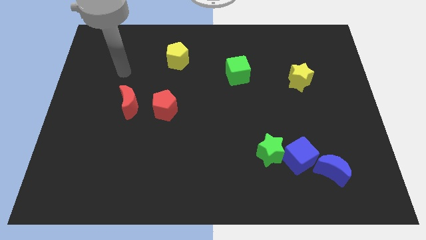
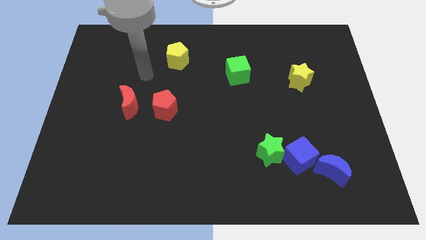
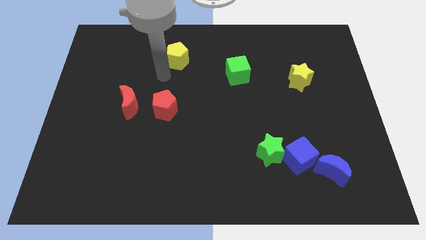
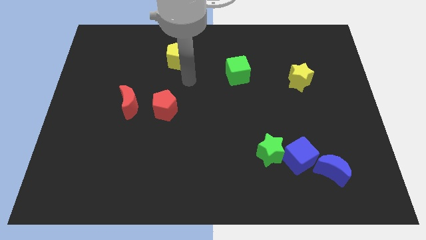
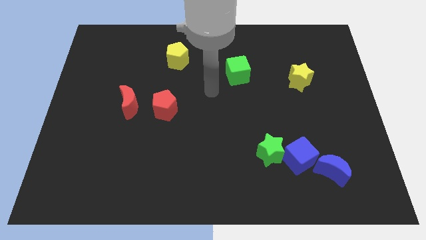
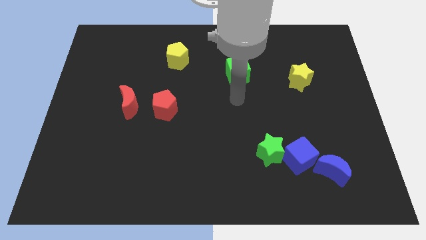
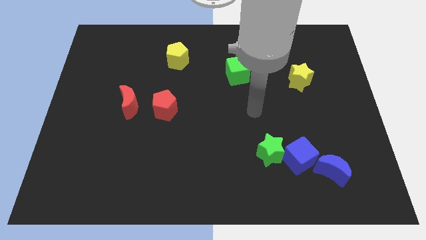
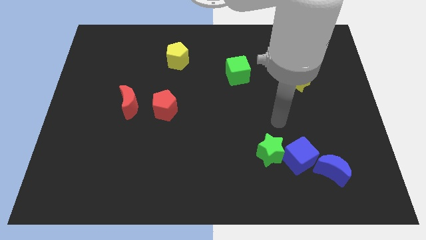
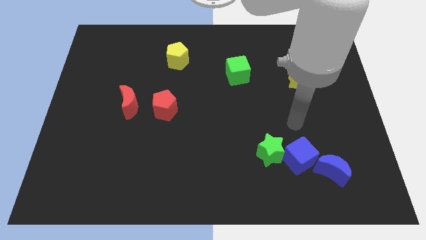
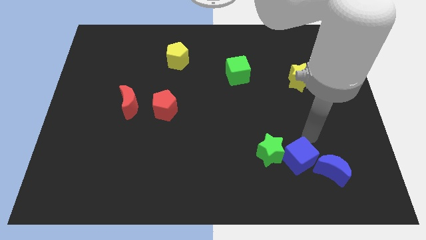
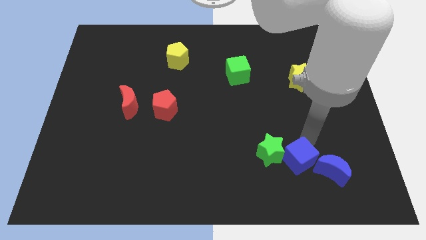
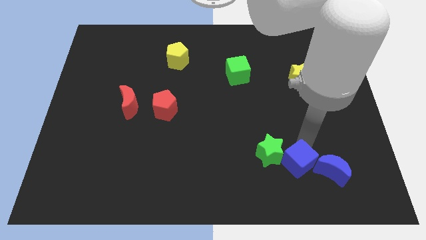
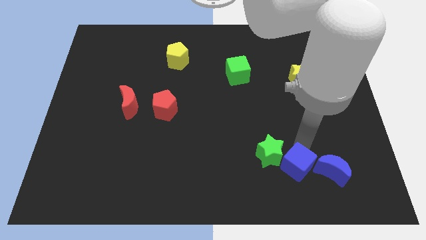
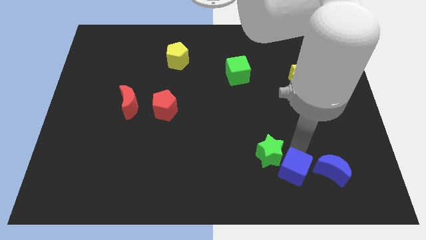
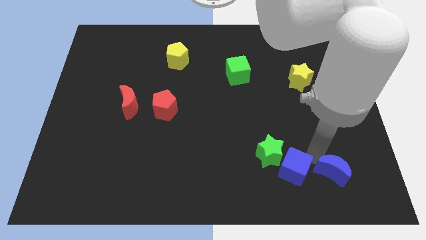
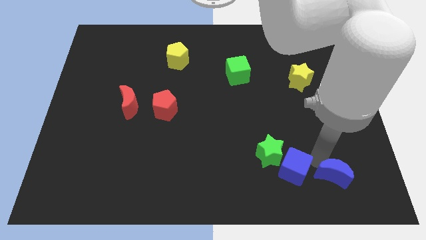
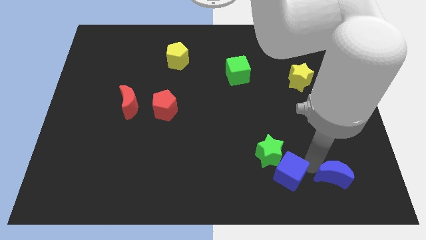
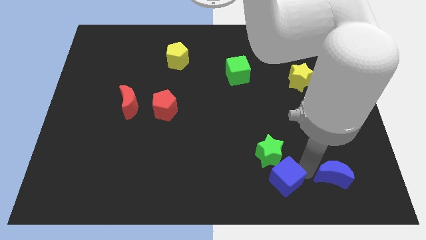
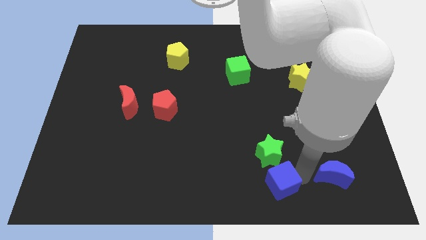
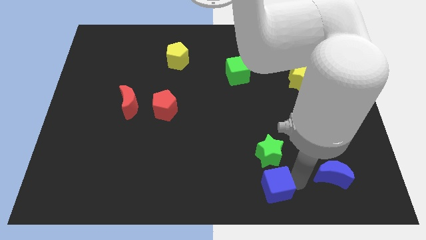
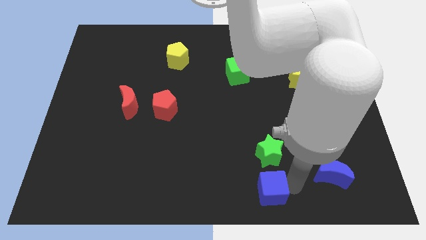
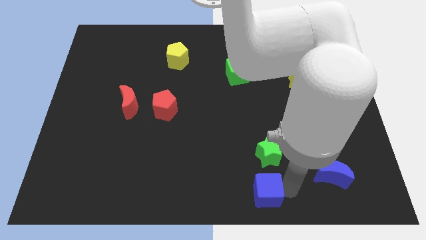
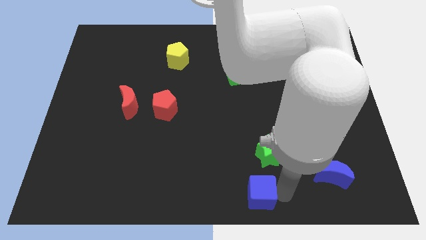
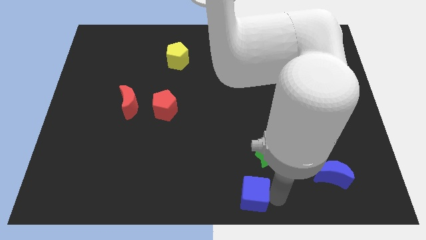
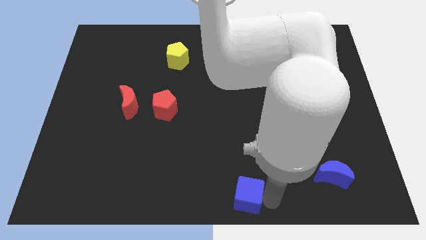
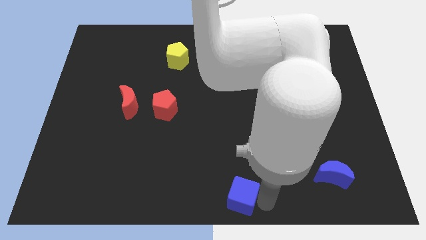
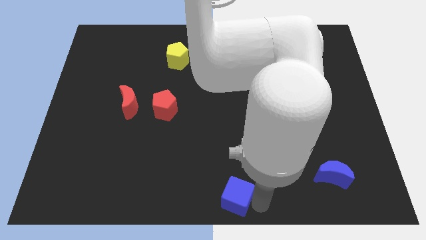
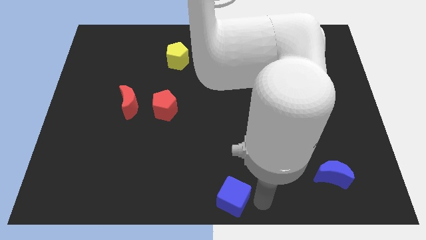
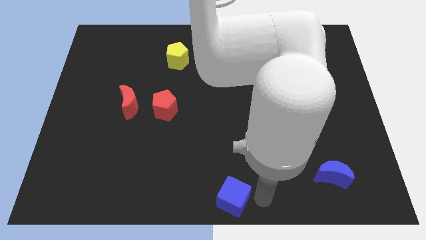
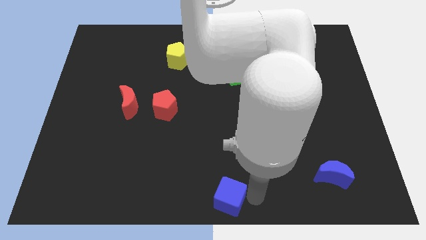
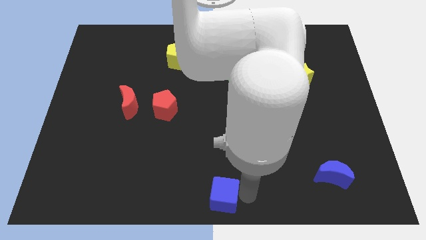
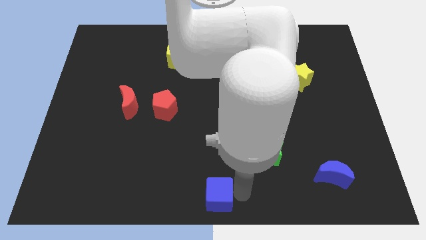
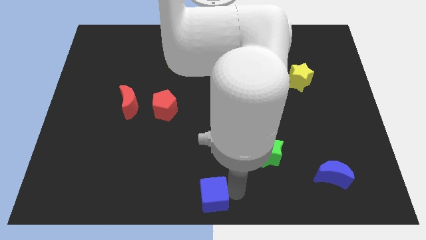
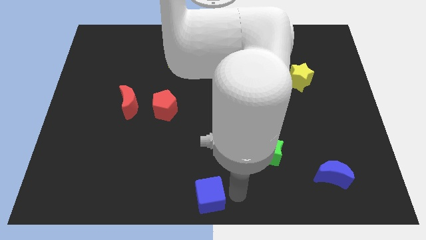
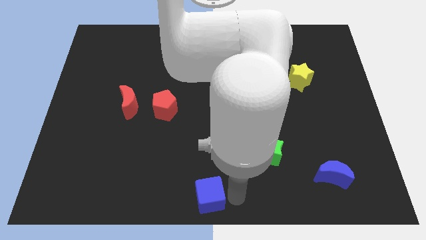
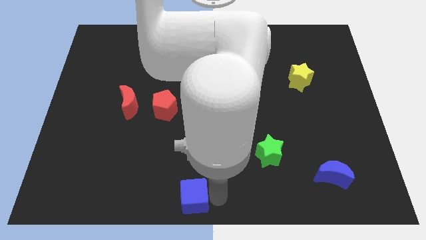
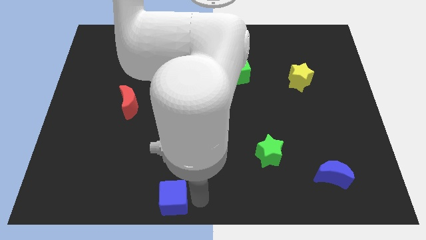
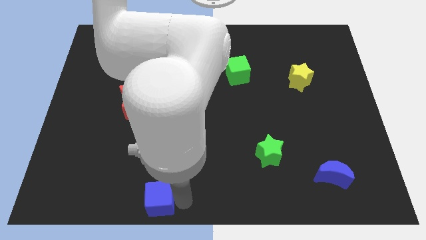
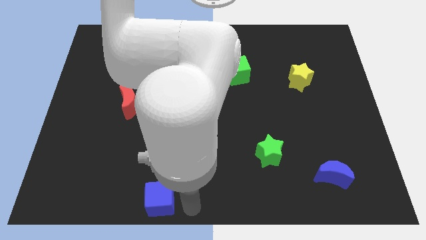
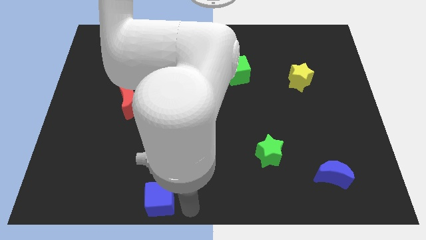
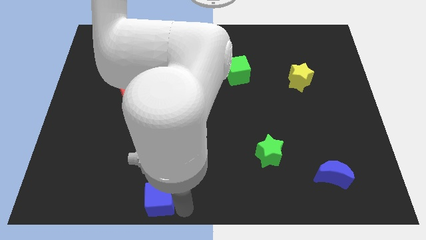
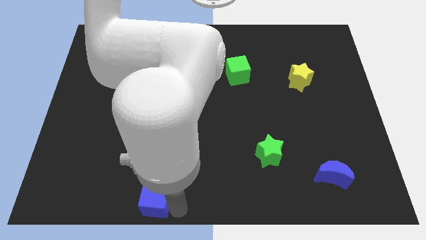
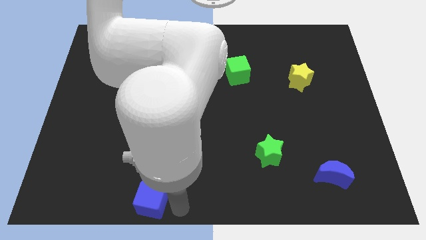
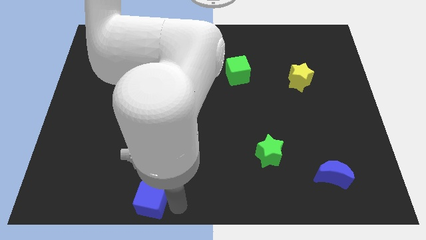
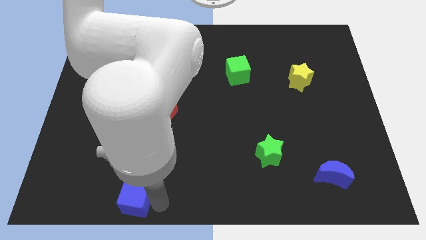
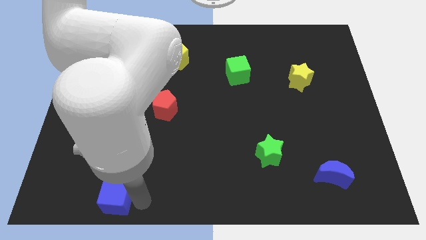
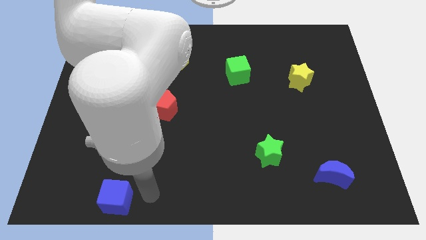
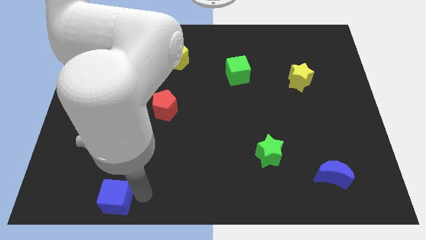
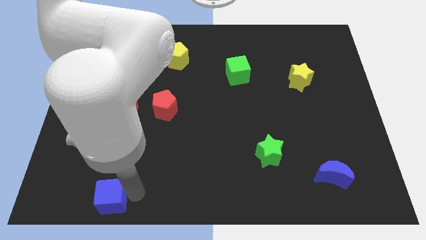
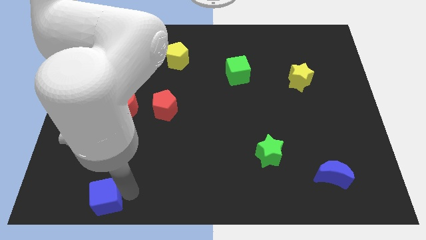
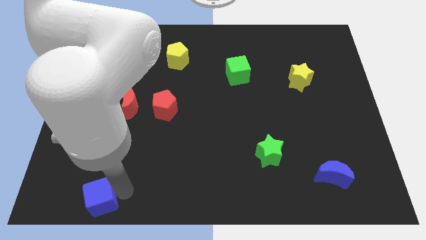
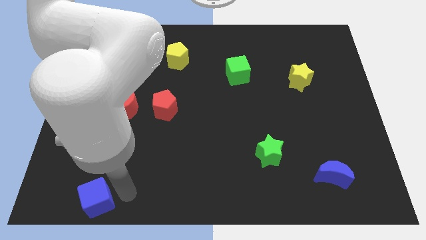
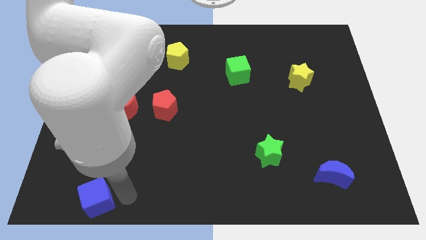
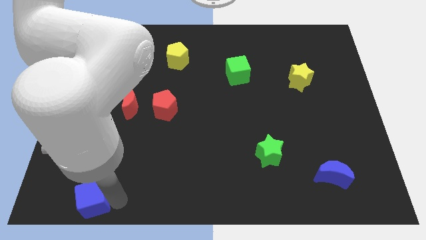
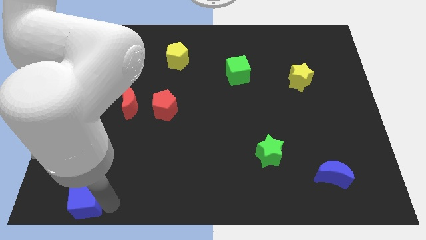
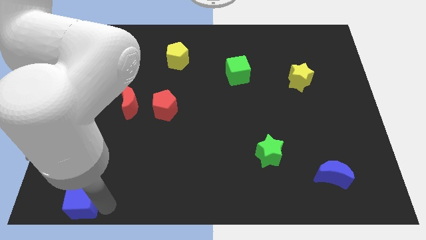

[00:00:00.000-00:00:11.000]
push the blue cube to the bottom left
